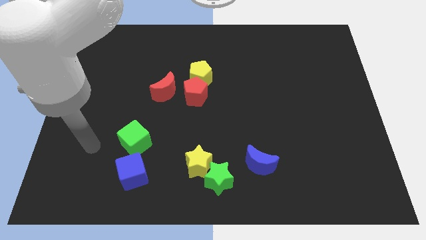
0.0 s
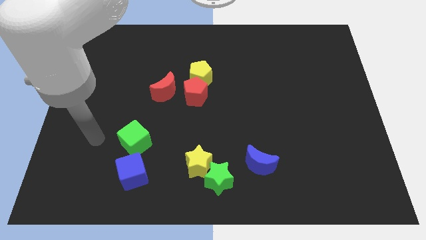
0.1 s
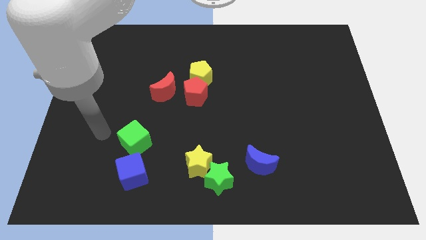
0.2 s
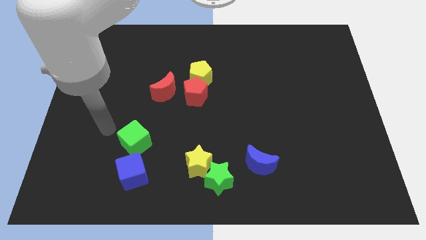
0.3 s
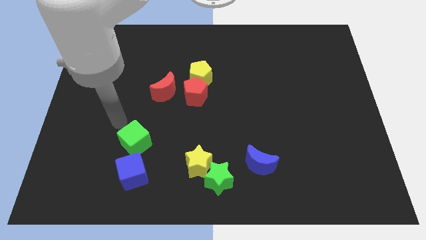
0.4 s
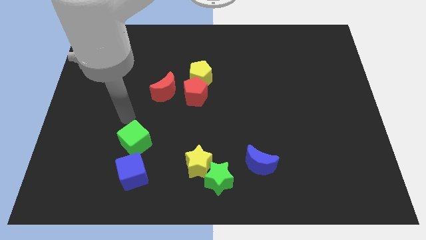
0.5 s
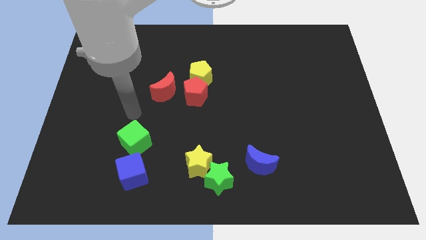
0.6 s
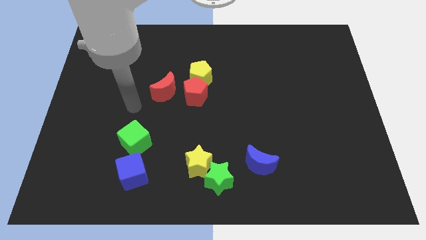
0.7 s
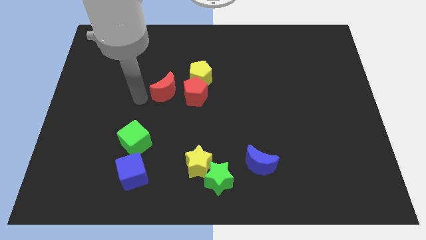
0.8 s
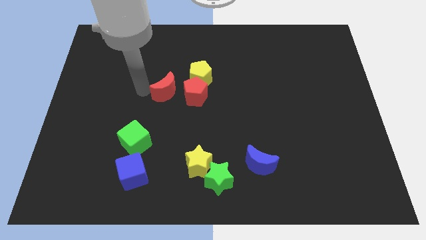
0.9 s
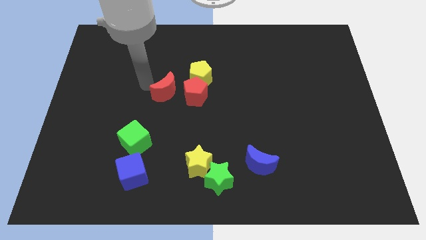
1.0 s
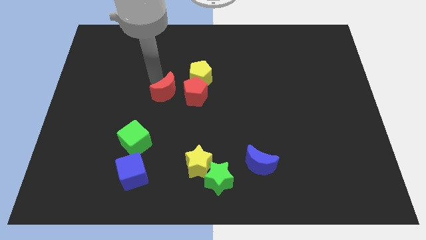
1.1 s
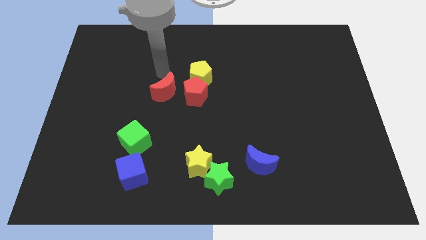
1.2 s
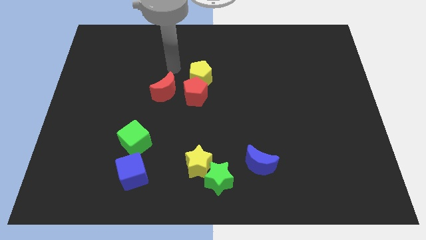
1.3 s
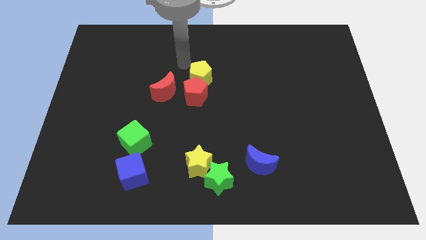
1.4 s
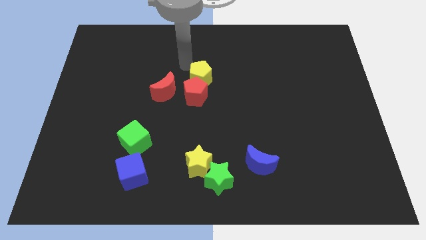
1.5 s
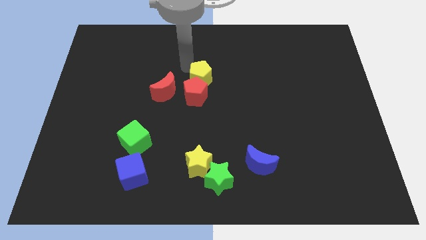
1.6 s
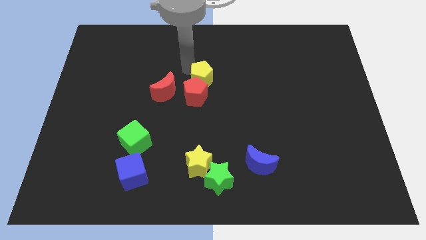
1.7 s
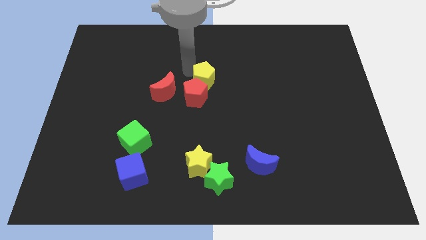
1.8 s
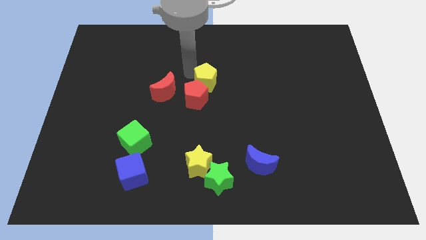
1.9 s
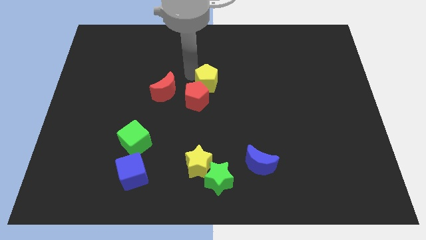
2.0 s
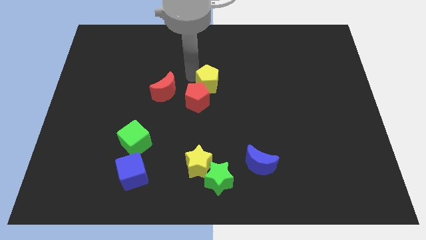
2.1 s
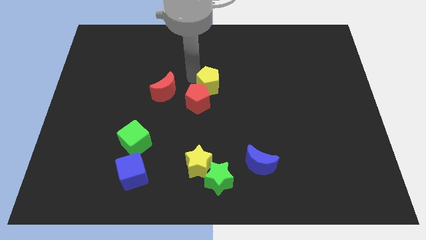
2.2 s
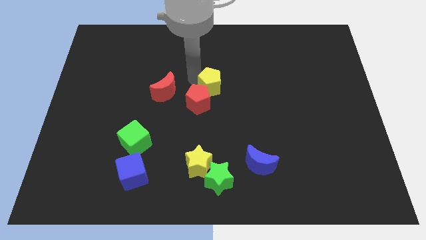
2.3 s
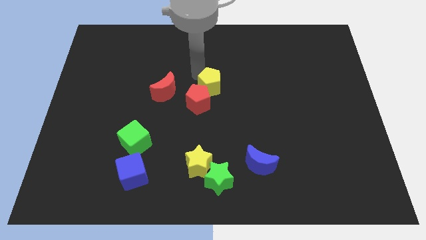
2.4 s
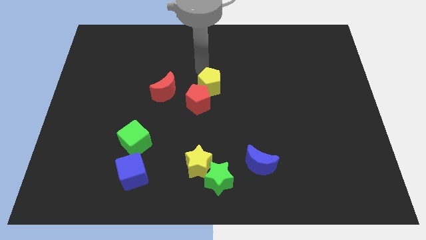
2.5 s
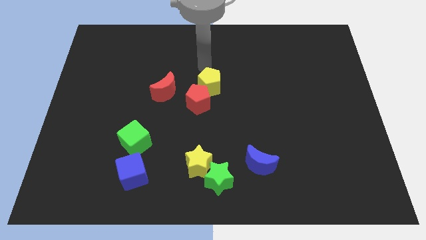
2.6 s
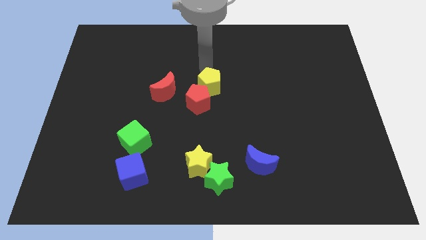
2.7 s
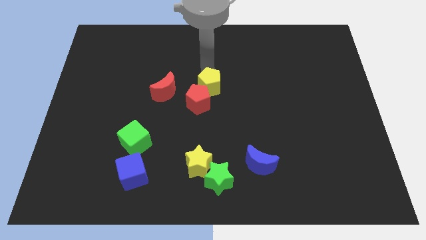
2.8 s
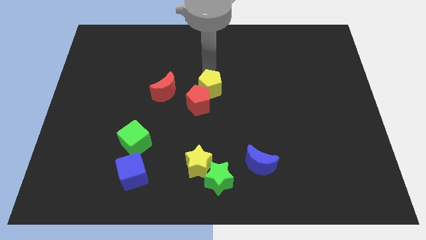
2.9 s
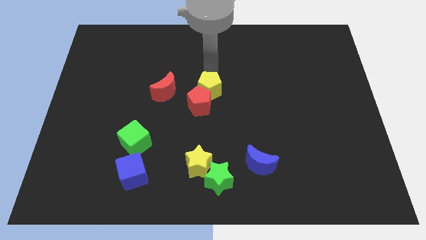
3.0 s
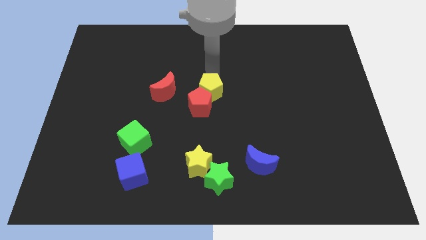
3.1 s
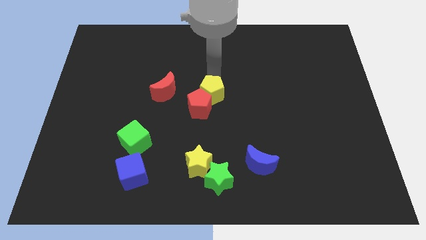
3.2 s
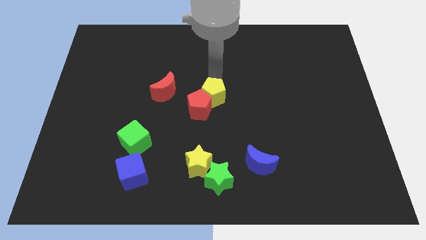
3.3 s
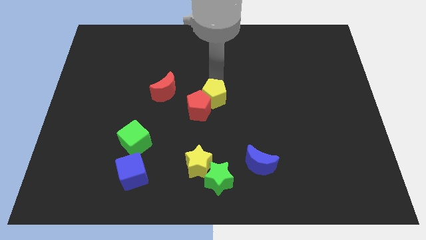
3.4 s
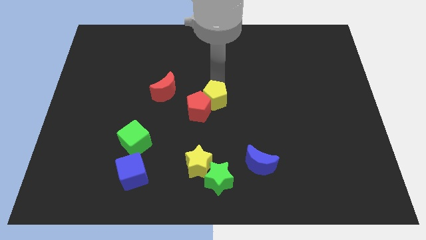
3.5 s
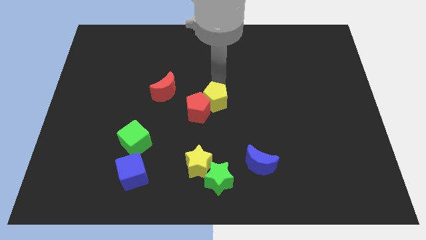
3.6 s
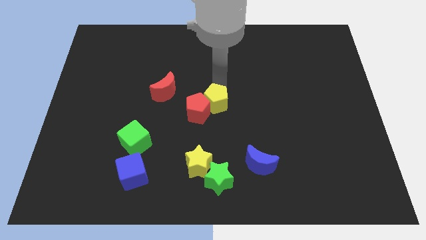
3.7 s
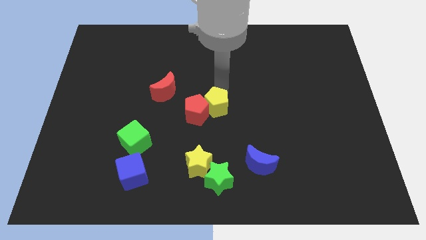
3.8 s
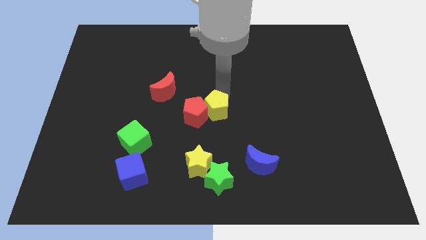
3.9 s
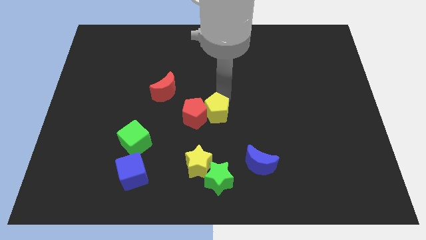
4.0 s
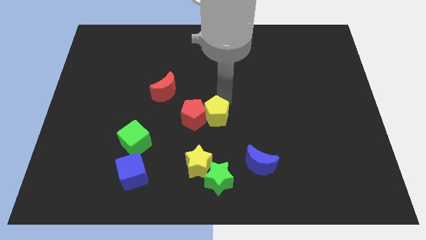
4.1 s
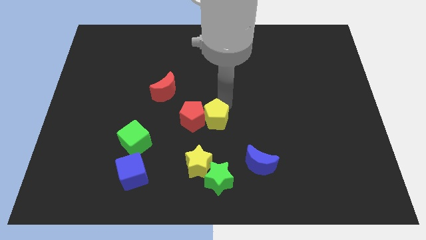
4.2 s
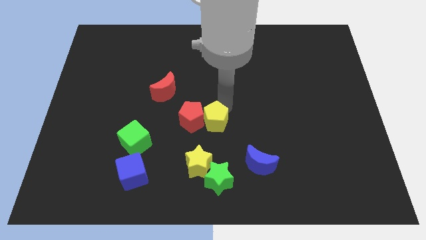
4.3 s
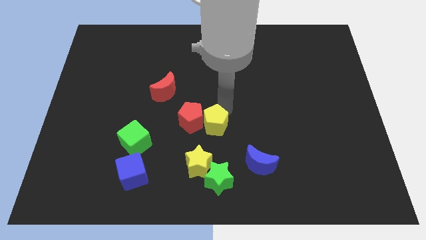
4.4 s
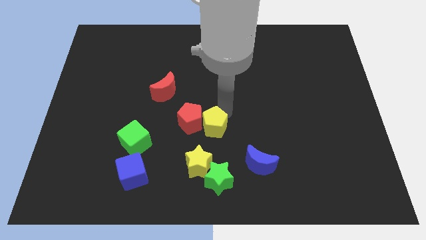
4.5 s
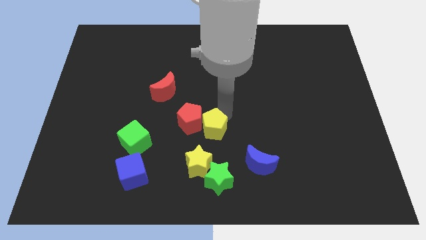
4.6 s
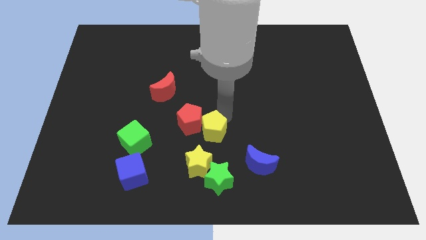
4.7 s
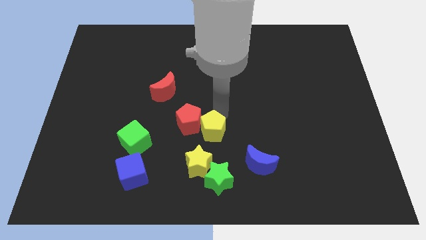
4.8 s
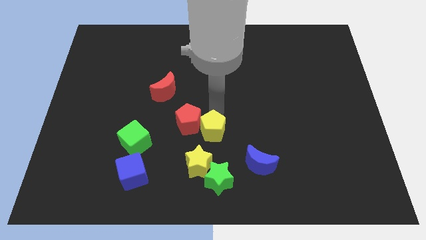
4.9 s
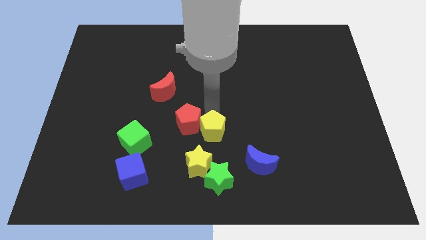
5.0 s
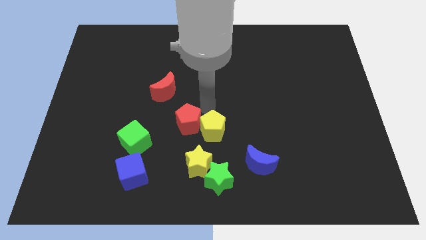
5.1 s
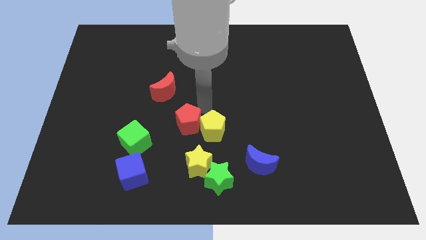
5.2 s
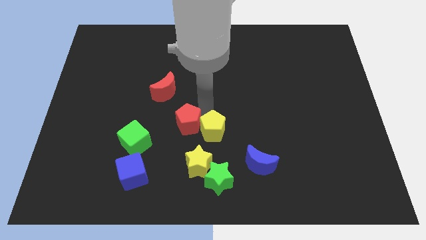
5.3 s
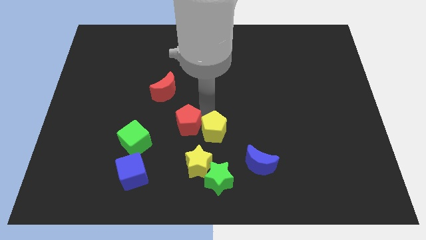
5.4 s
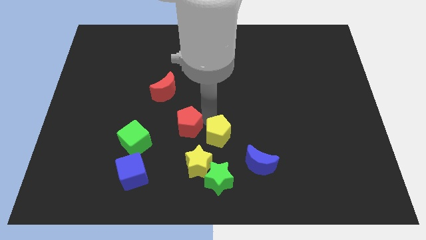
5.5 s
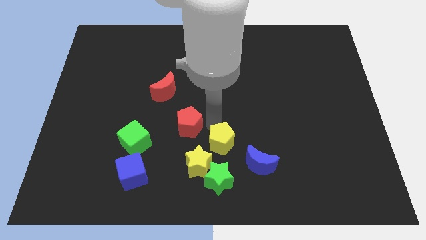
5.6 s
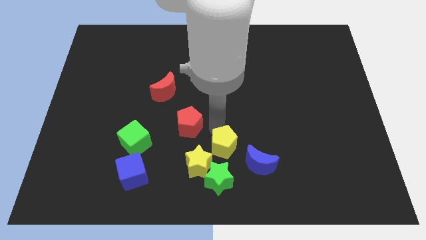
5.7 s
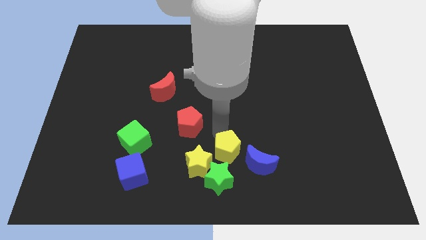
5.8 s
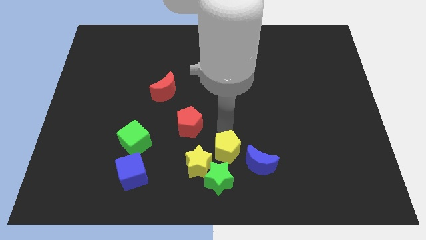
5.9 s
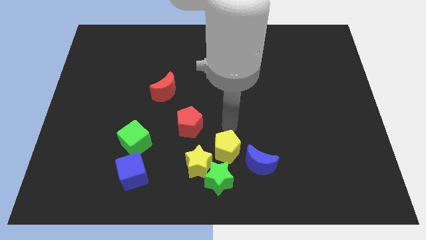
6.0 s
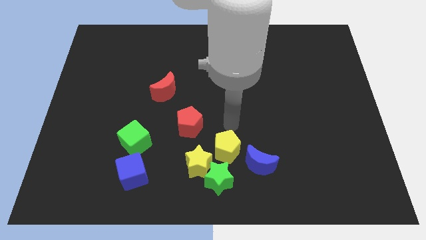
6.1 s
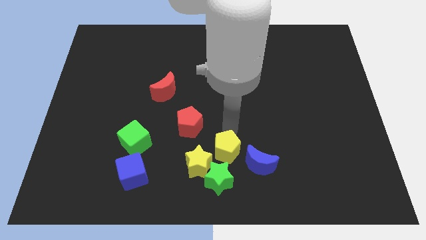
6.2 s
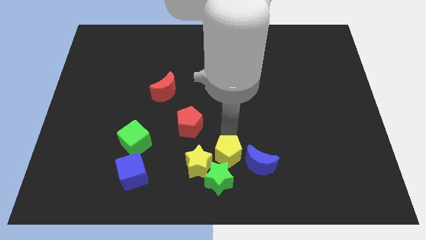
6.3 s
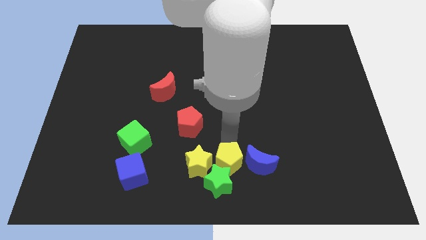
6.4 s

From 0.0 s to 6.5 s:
slide the yellow pentagon close to the green star
